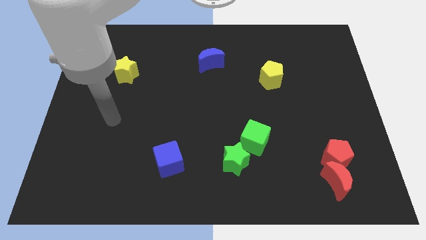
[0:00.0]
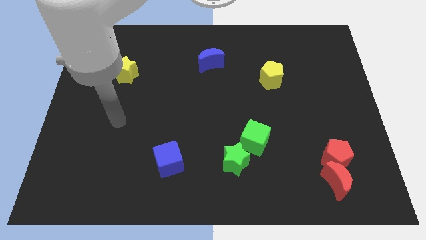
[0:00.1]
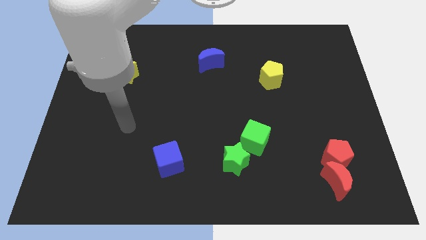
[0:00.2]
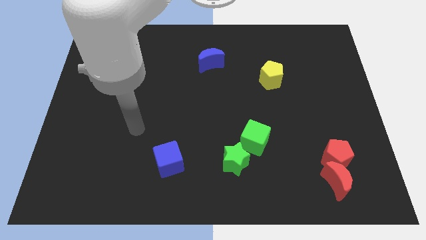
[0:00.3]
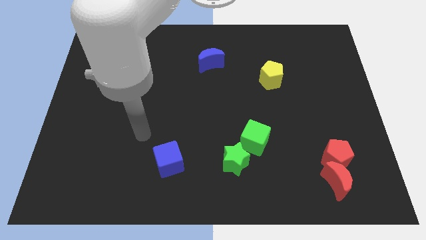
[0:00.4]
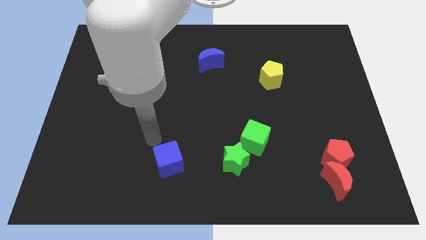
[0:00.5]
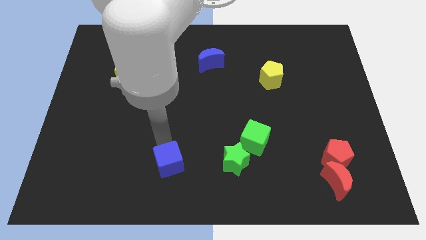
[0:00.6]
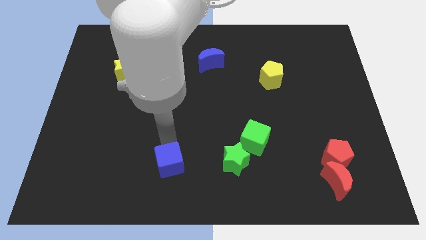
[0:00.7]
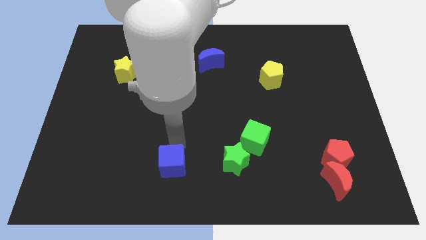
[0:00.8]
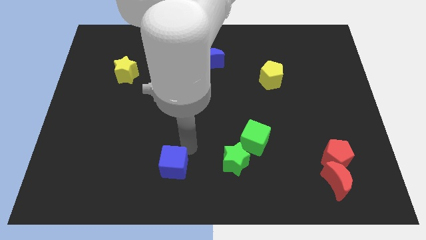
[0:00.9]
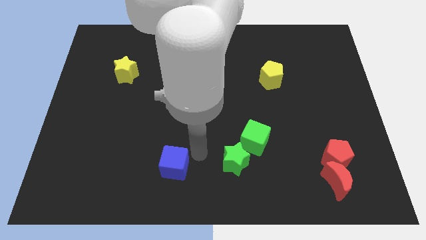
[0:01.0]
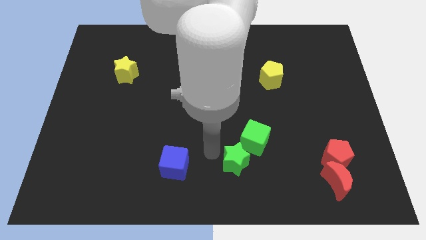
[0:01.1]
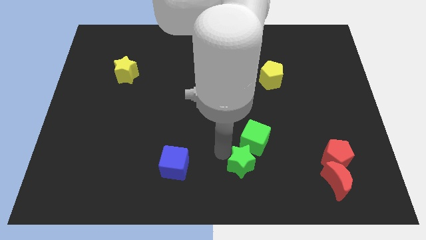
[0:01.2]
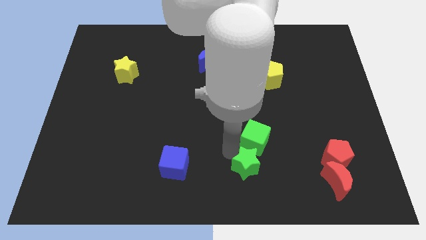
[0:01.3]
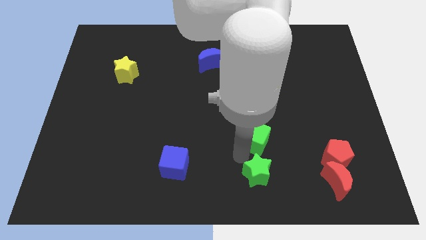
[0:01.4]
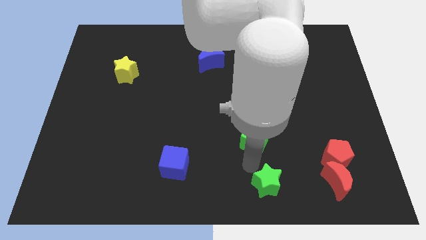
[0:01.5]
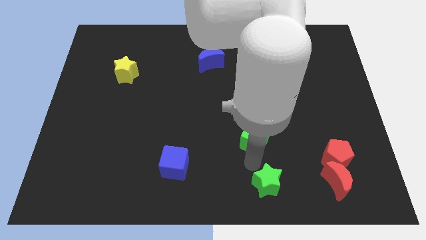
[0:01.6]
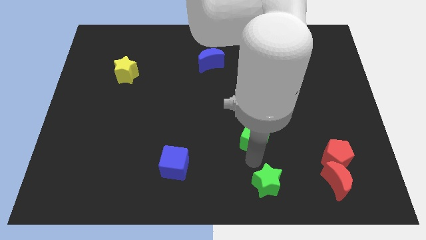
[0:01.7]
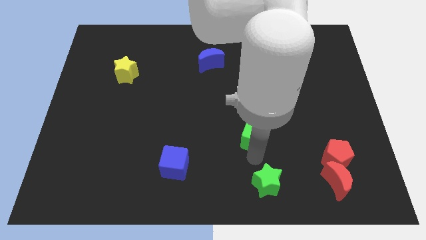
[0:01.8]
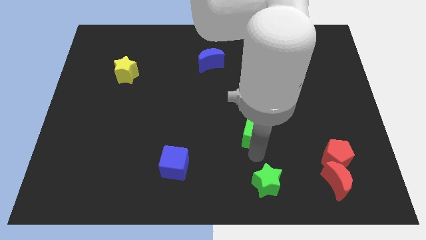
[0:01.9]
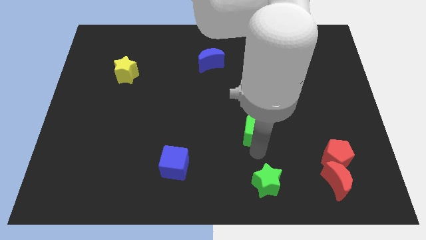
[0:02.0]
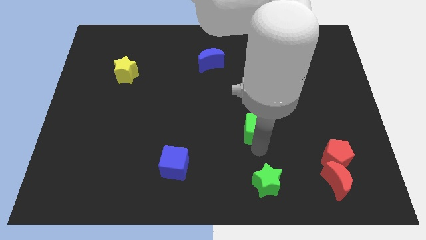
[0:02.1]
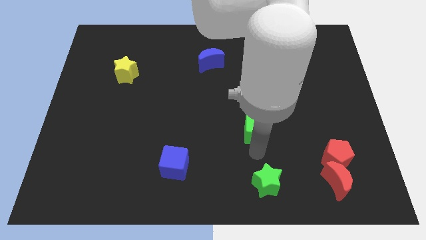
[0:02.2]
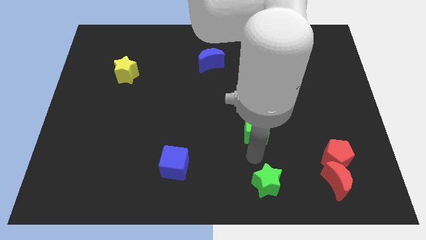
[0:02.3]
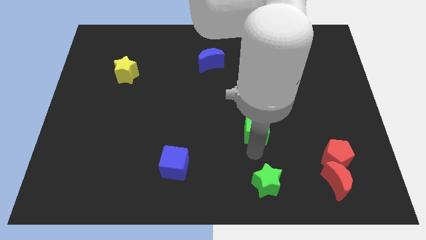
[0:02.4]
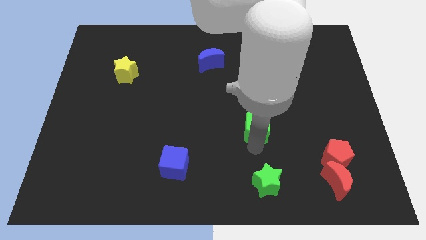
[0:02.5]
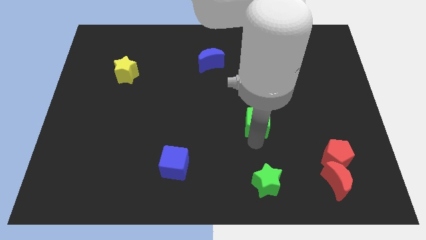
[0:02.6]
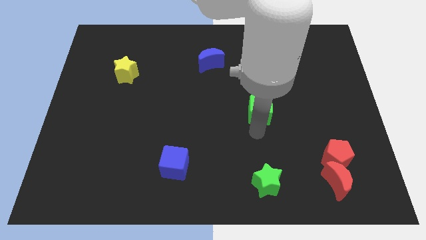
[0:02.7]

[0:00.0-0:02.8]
push the green cube a little bit upwards

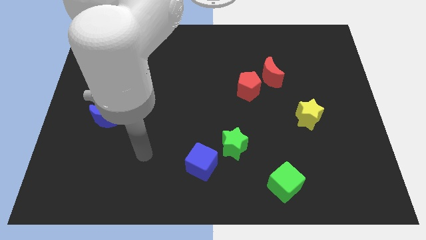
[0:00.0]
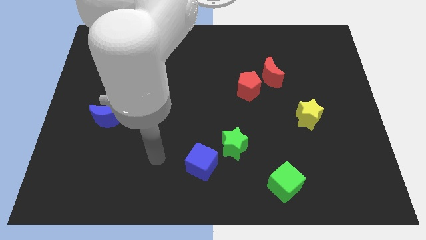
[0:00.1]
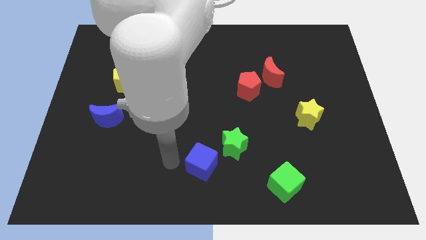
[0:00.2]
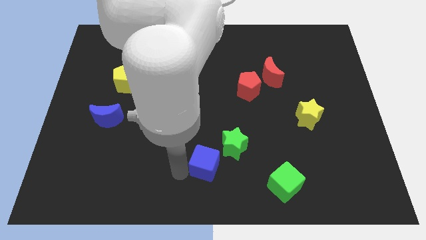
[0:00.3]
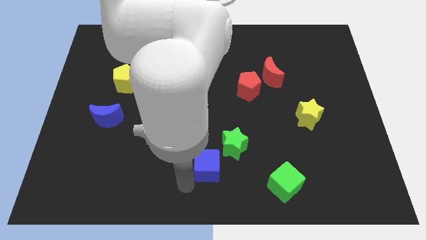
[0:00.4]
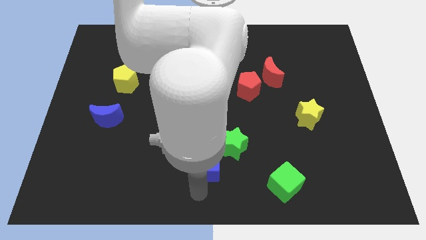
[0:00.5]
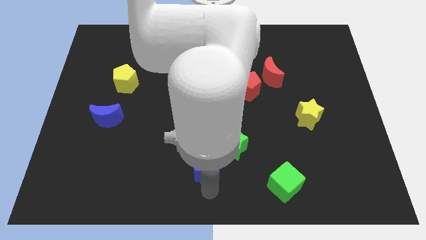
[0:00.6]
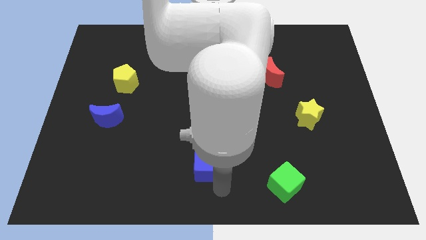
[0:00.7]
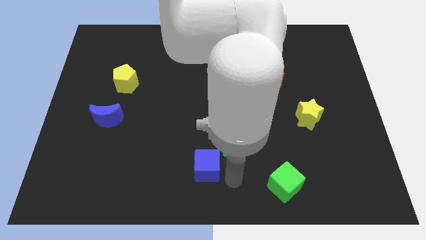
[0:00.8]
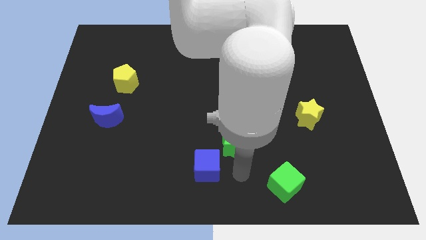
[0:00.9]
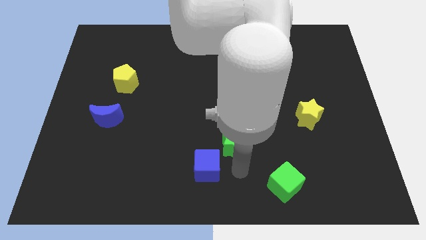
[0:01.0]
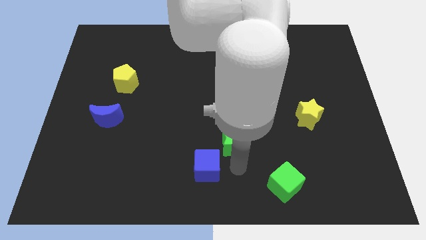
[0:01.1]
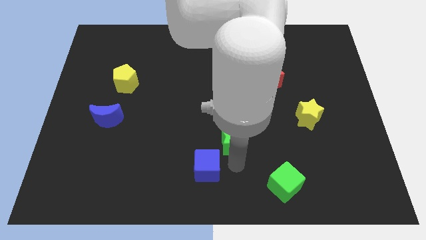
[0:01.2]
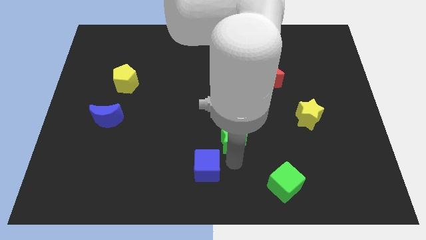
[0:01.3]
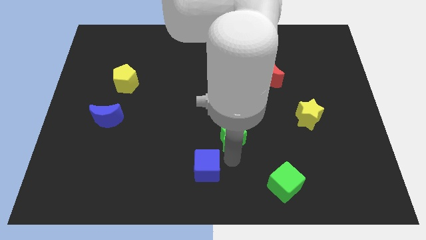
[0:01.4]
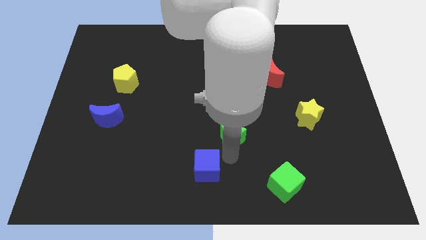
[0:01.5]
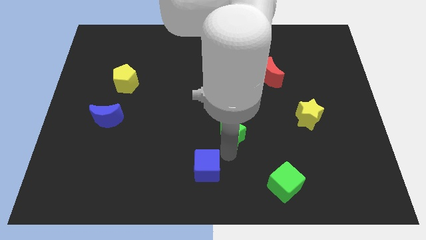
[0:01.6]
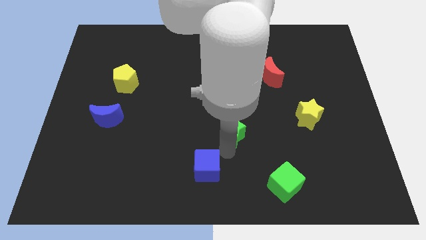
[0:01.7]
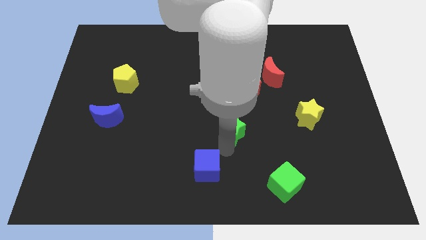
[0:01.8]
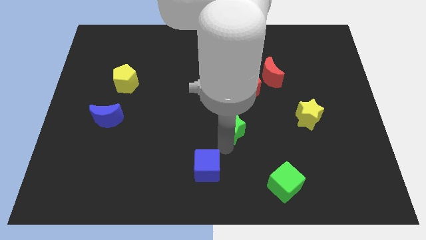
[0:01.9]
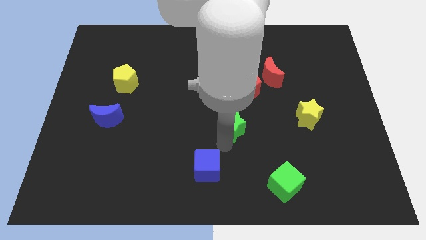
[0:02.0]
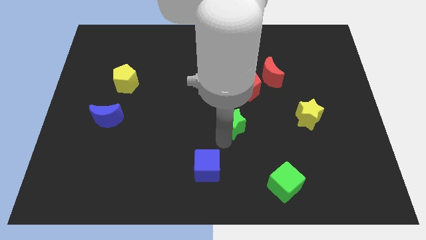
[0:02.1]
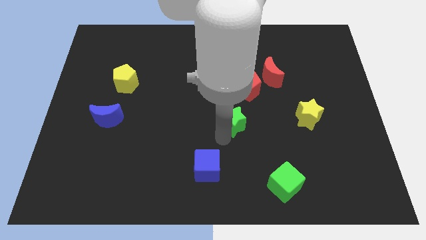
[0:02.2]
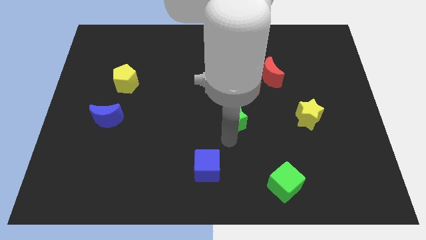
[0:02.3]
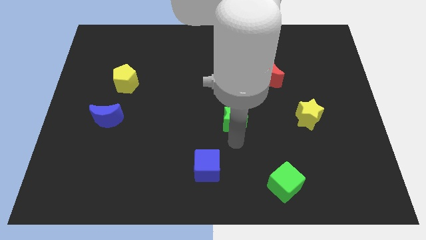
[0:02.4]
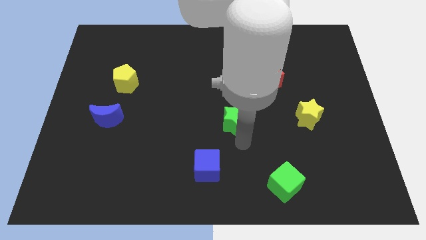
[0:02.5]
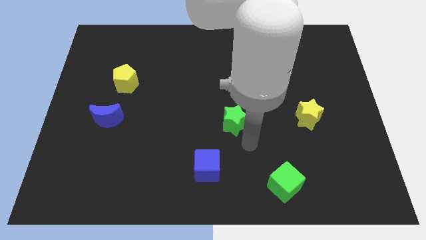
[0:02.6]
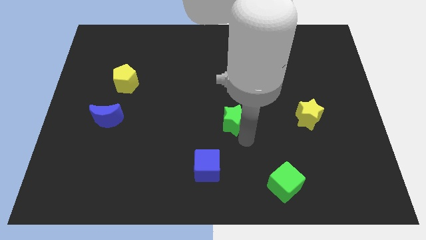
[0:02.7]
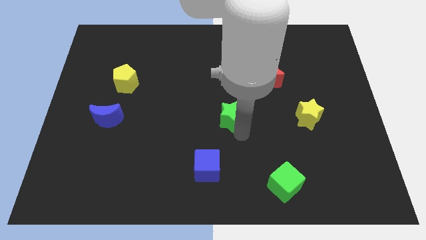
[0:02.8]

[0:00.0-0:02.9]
slightly push the green star up

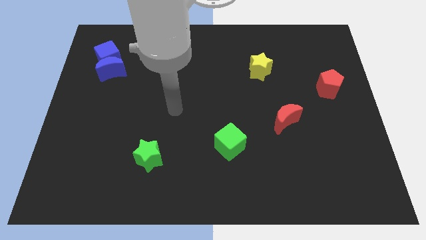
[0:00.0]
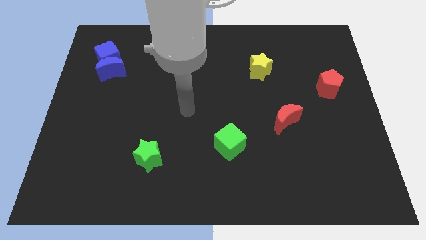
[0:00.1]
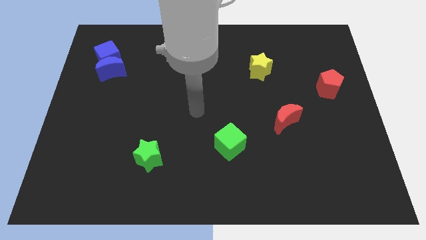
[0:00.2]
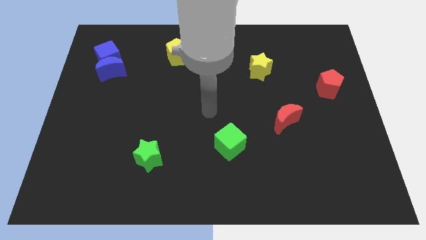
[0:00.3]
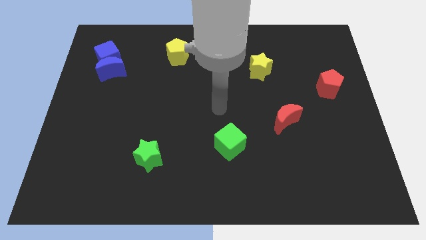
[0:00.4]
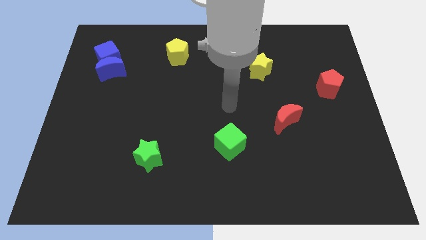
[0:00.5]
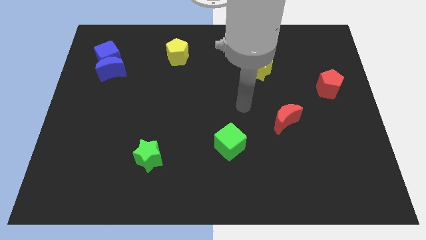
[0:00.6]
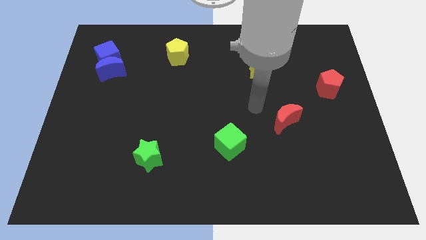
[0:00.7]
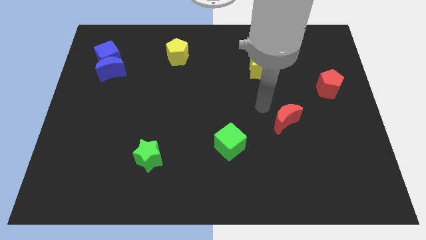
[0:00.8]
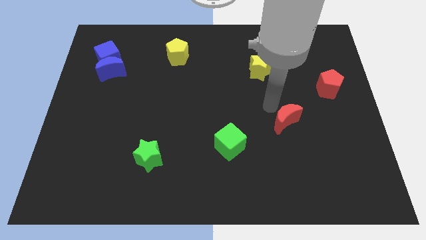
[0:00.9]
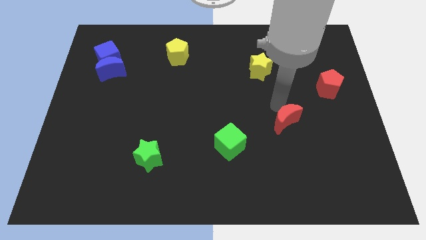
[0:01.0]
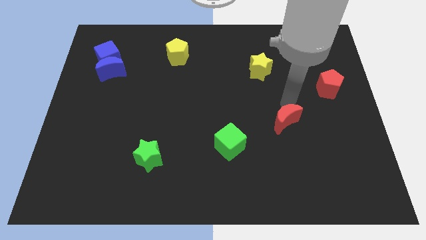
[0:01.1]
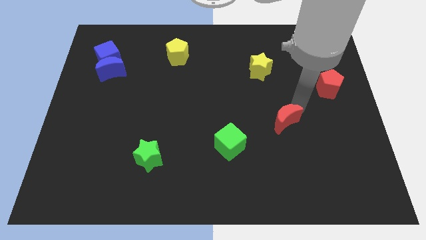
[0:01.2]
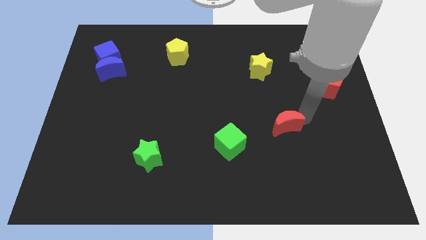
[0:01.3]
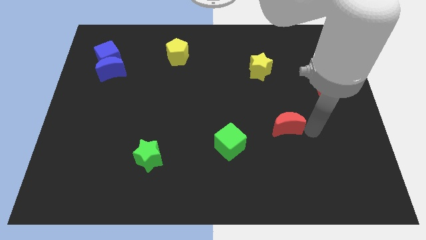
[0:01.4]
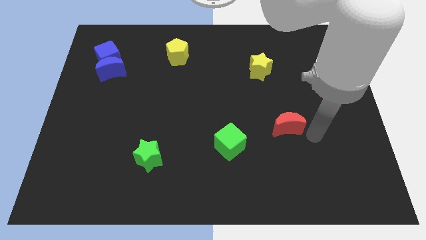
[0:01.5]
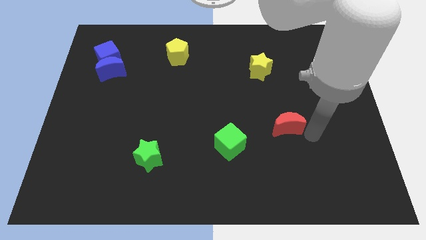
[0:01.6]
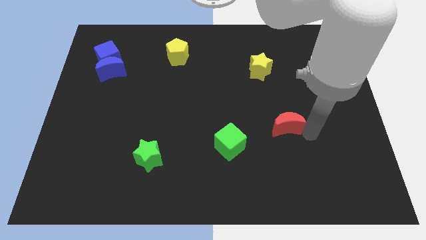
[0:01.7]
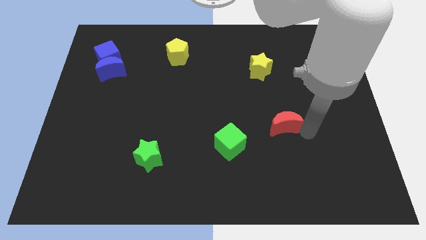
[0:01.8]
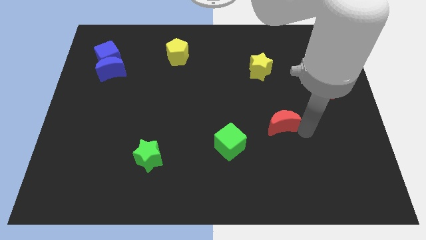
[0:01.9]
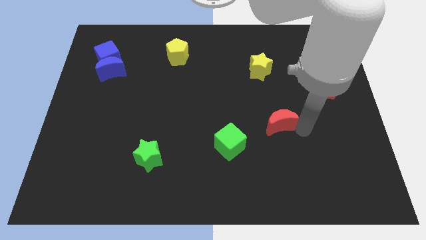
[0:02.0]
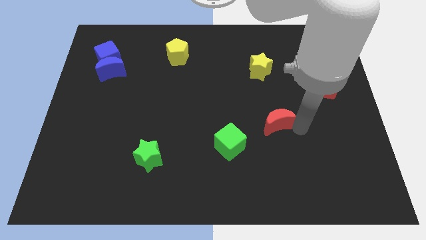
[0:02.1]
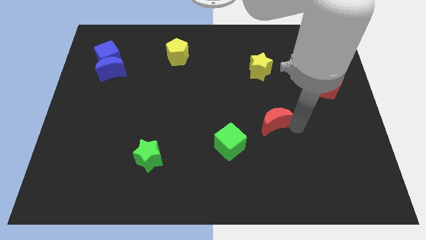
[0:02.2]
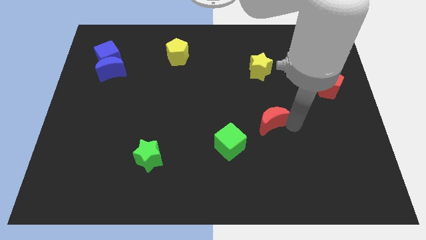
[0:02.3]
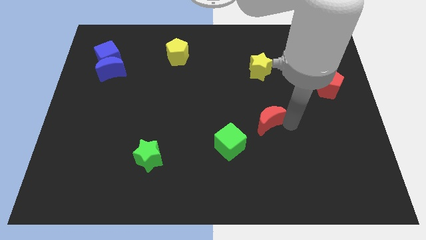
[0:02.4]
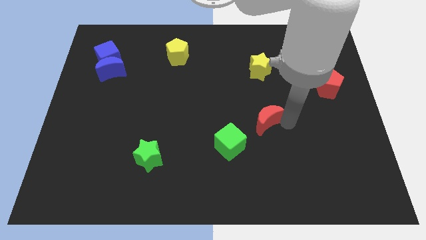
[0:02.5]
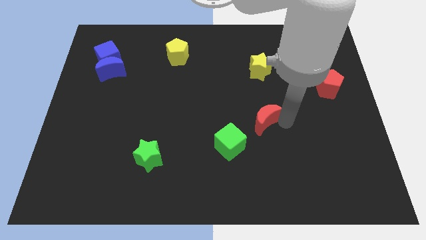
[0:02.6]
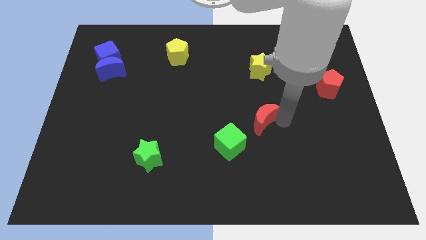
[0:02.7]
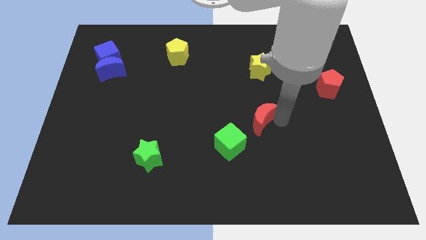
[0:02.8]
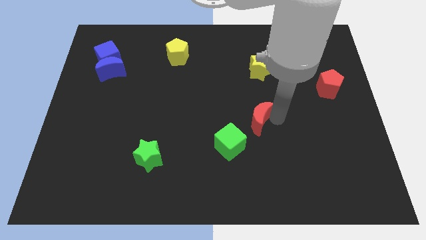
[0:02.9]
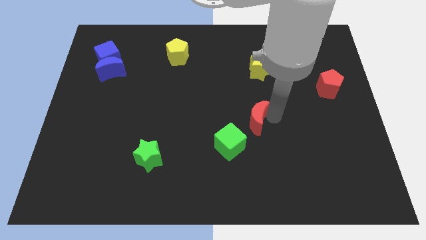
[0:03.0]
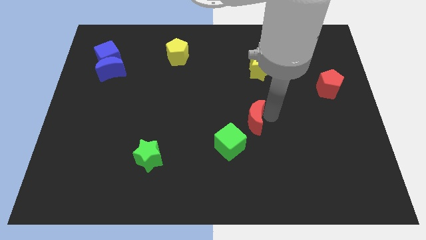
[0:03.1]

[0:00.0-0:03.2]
move the red moon a little bit left
